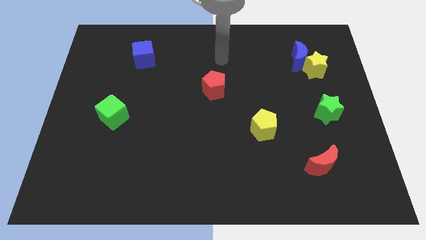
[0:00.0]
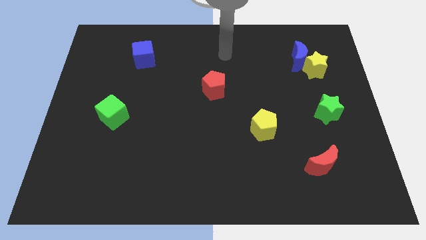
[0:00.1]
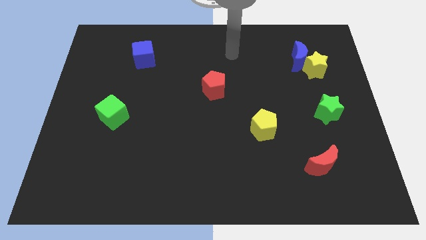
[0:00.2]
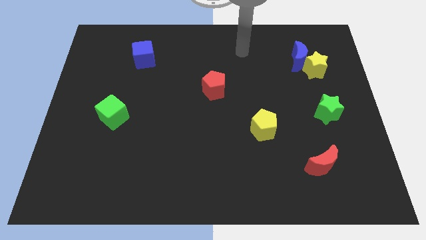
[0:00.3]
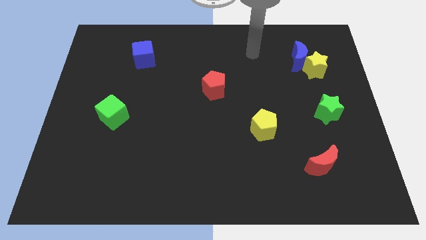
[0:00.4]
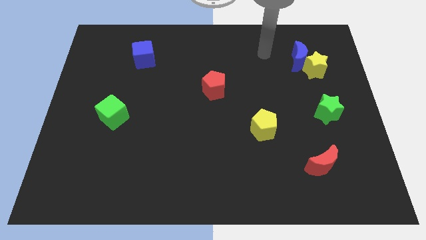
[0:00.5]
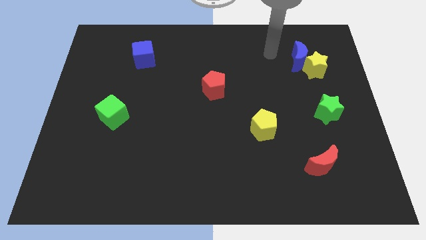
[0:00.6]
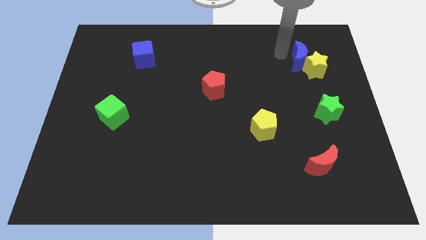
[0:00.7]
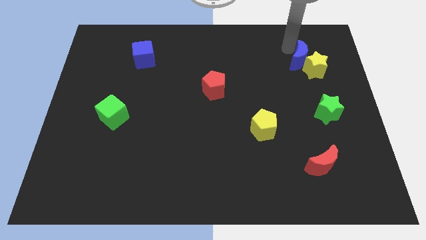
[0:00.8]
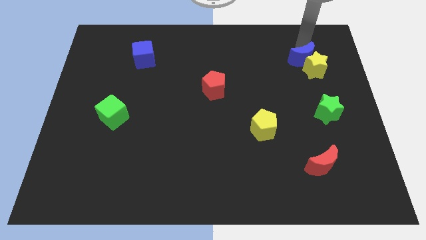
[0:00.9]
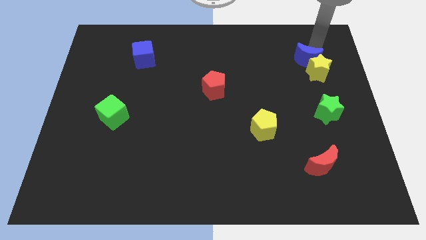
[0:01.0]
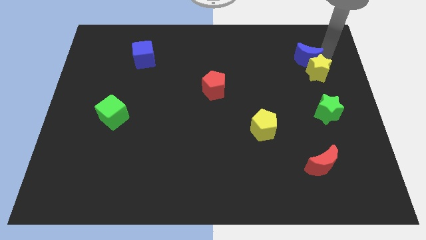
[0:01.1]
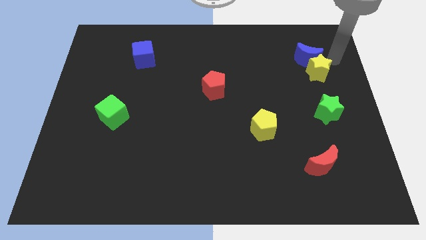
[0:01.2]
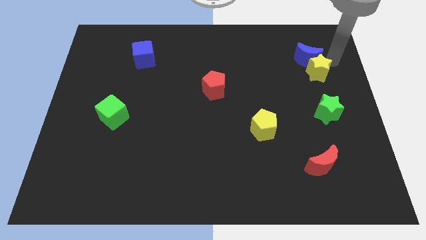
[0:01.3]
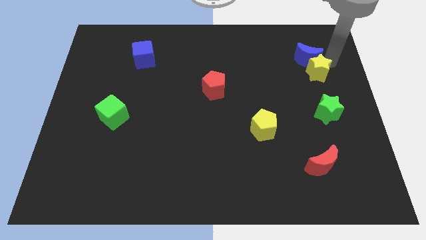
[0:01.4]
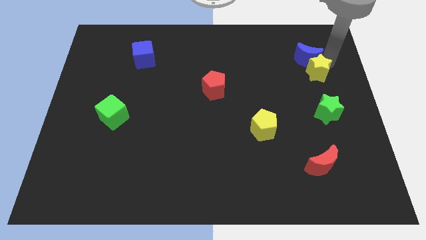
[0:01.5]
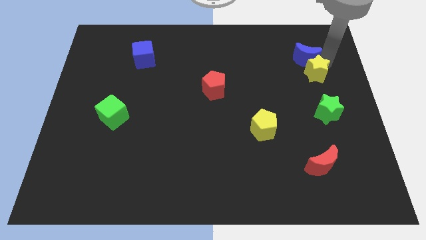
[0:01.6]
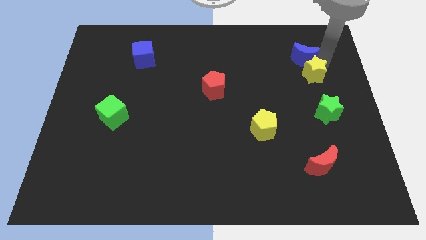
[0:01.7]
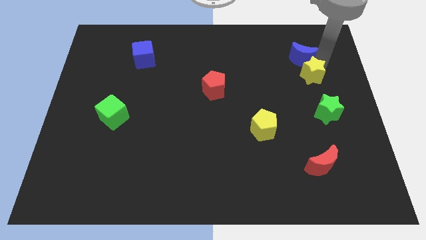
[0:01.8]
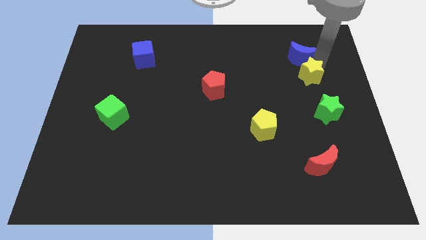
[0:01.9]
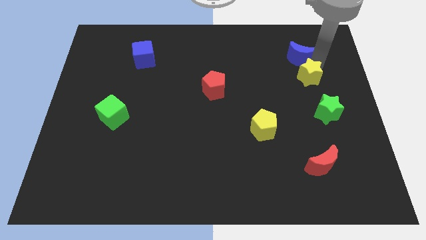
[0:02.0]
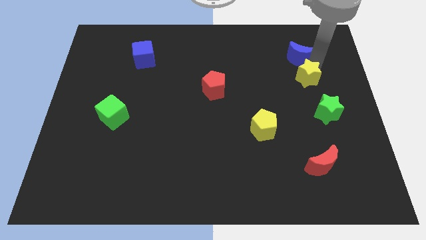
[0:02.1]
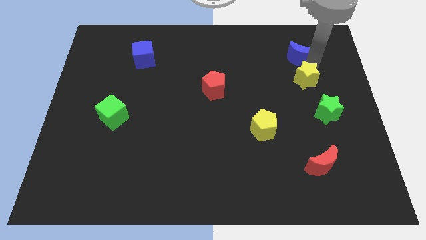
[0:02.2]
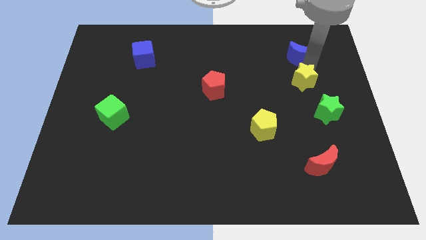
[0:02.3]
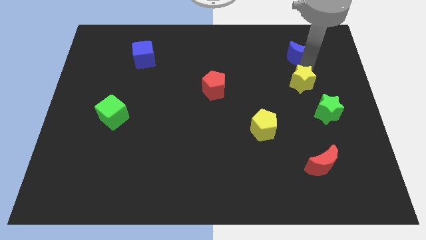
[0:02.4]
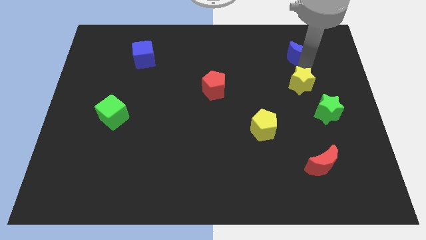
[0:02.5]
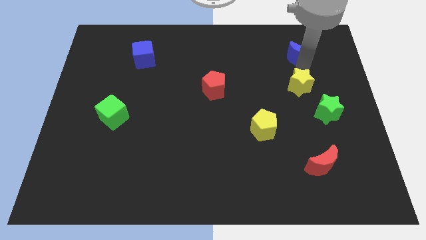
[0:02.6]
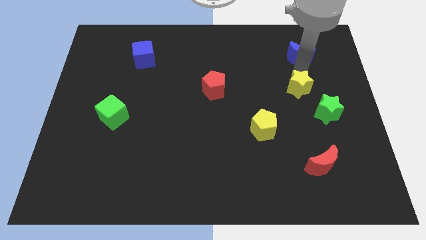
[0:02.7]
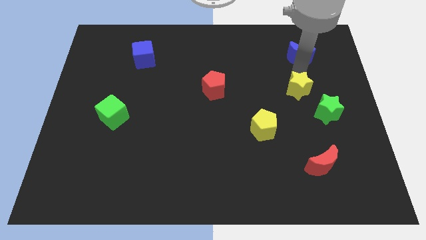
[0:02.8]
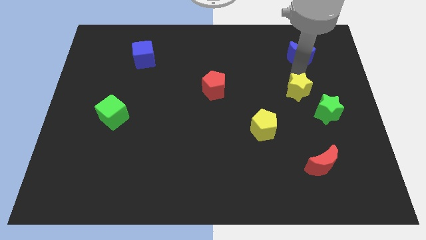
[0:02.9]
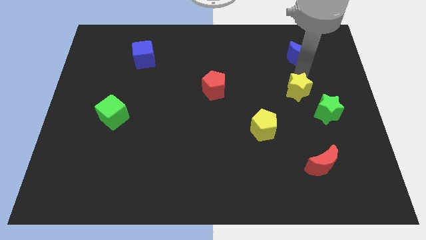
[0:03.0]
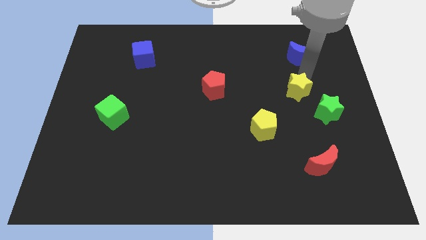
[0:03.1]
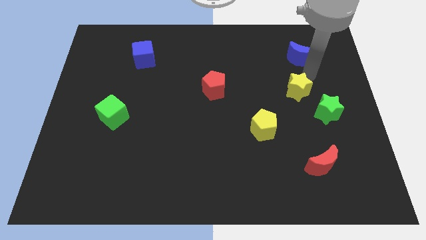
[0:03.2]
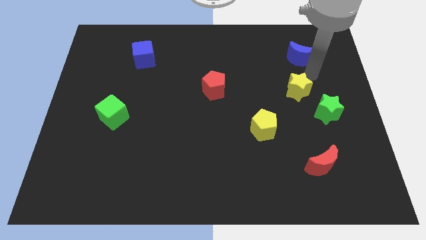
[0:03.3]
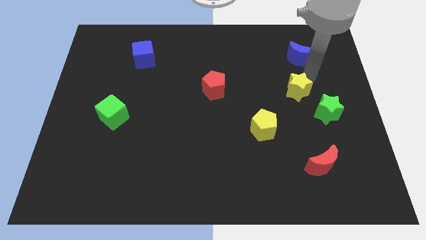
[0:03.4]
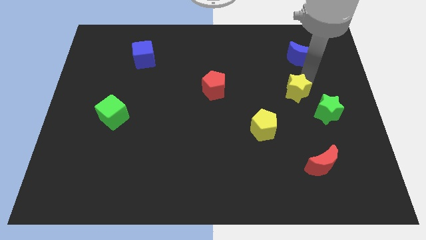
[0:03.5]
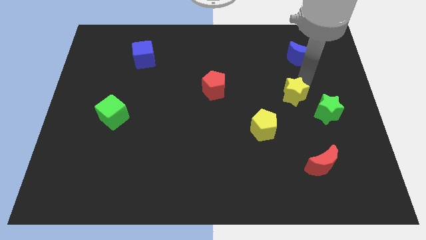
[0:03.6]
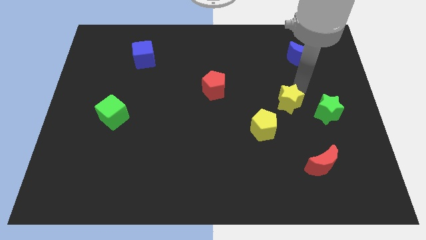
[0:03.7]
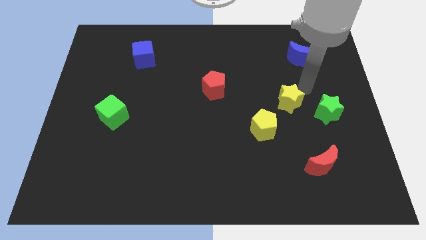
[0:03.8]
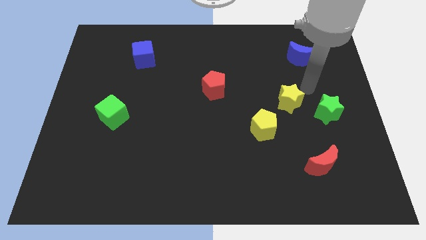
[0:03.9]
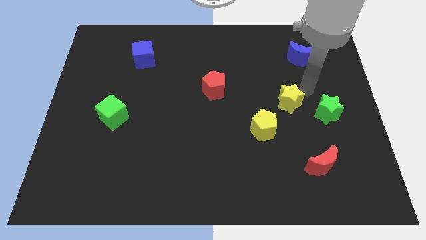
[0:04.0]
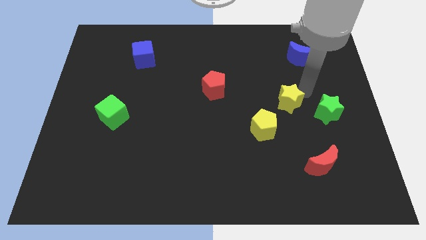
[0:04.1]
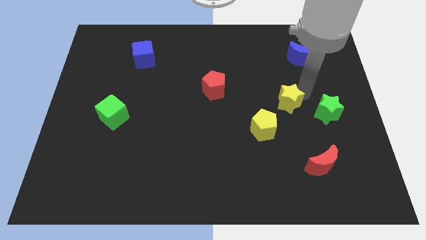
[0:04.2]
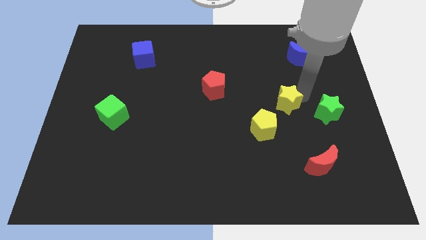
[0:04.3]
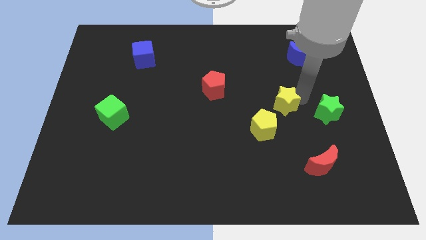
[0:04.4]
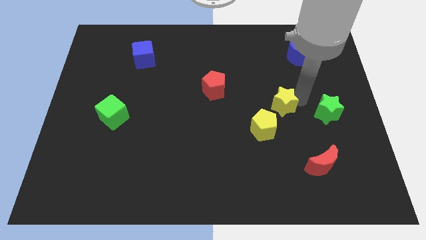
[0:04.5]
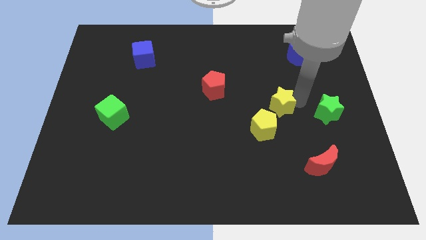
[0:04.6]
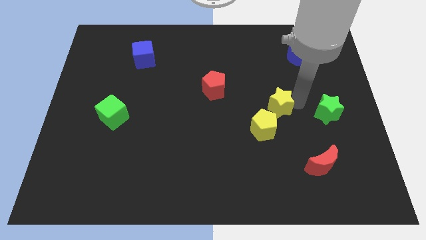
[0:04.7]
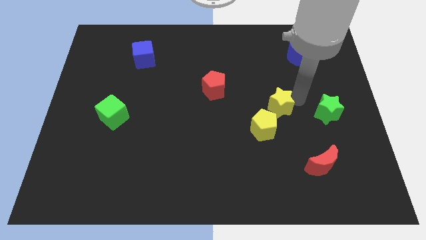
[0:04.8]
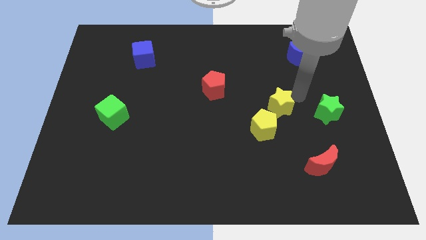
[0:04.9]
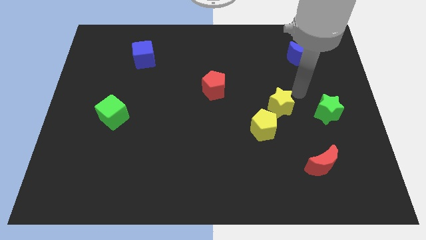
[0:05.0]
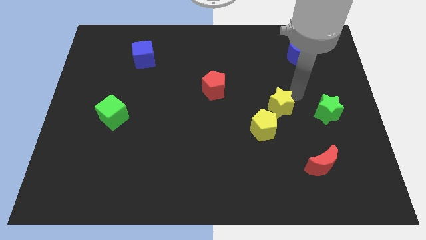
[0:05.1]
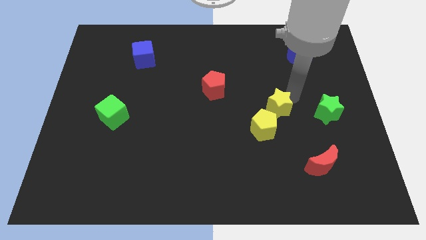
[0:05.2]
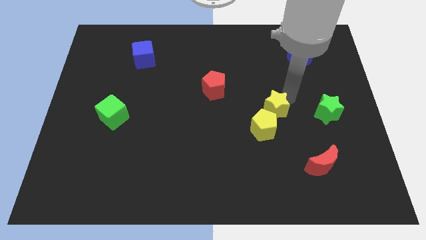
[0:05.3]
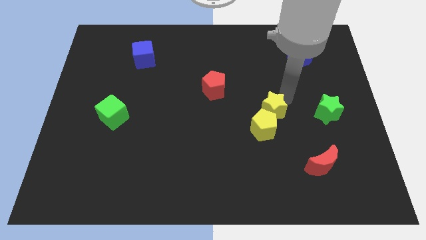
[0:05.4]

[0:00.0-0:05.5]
slide the yellow star next to the yellow pentagon

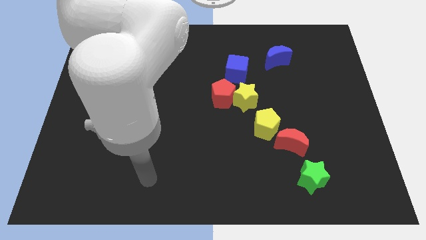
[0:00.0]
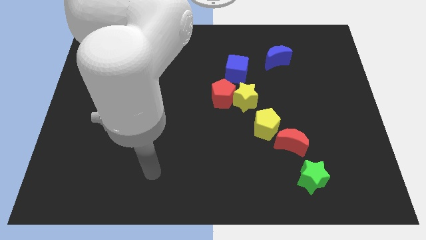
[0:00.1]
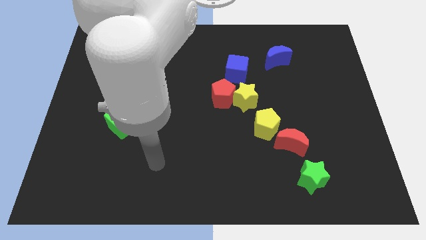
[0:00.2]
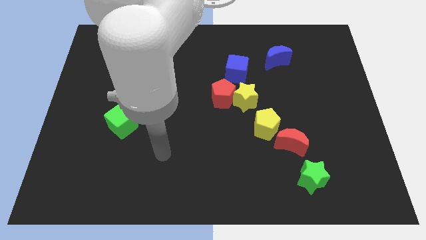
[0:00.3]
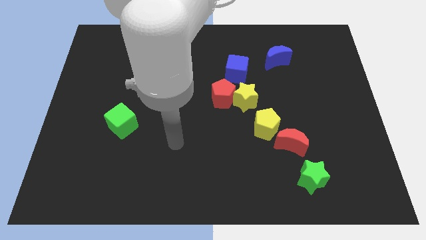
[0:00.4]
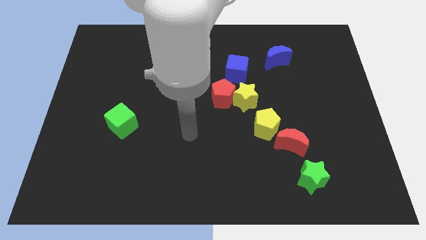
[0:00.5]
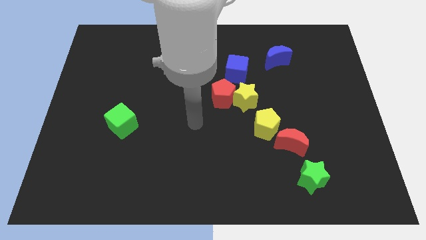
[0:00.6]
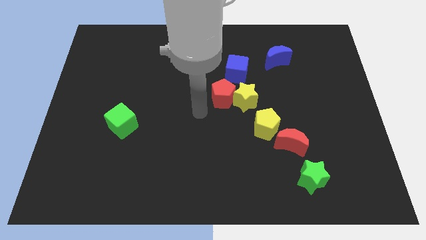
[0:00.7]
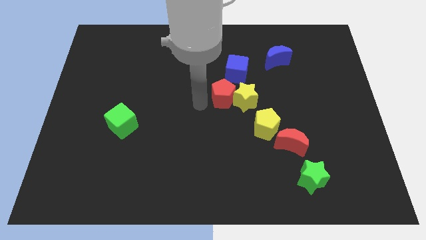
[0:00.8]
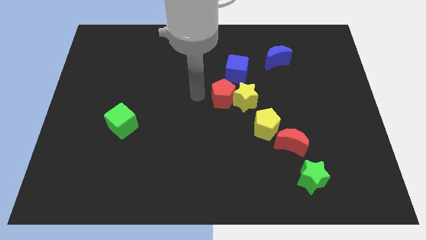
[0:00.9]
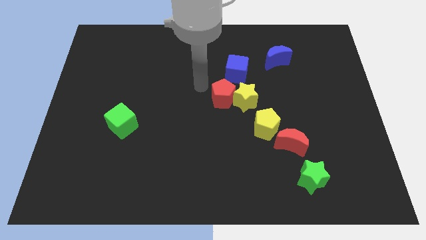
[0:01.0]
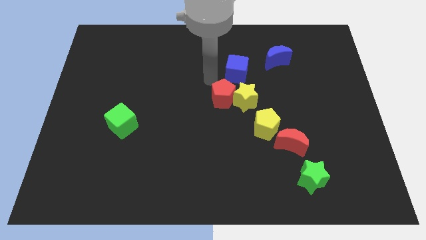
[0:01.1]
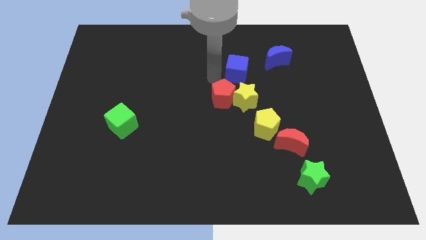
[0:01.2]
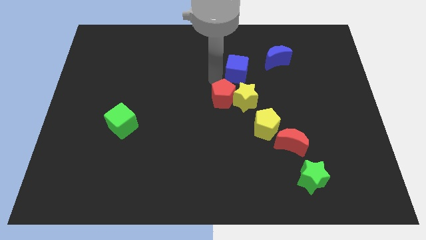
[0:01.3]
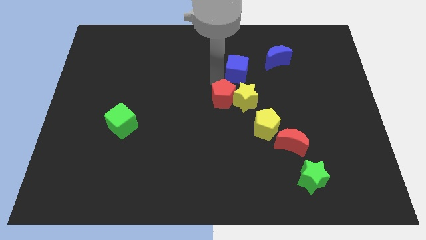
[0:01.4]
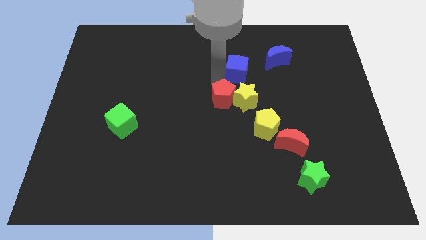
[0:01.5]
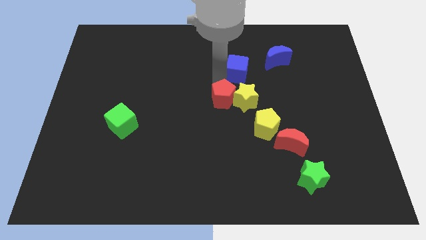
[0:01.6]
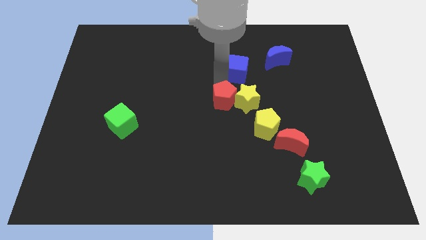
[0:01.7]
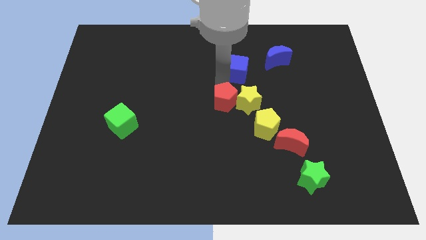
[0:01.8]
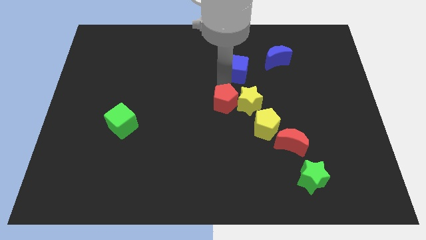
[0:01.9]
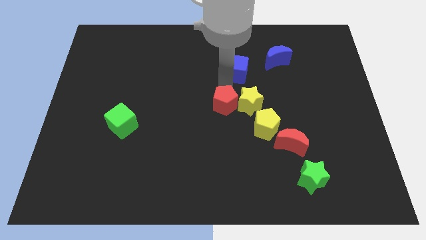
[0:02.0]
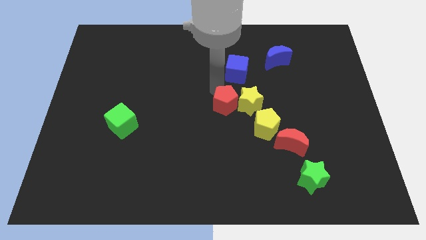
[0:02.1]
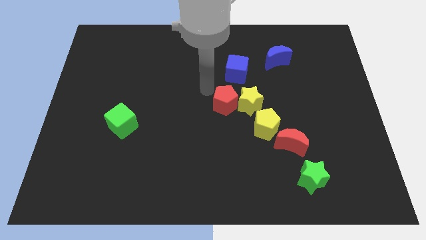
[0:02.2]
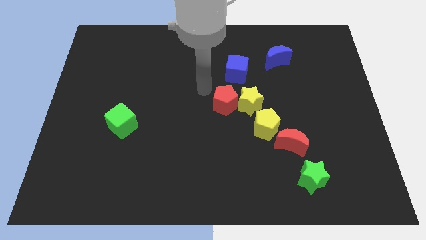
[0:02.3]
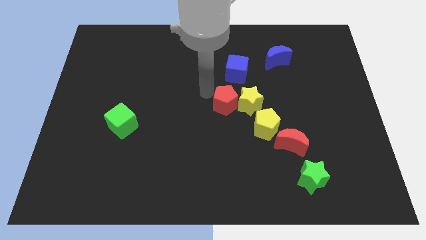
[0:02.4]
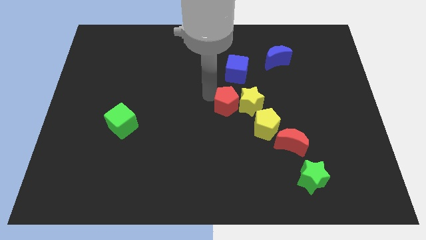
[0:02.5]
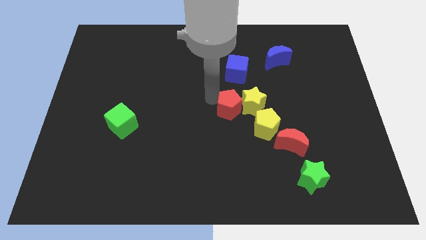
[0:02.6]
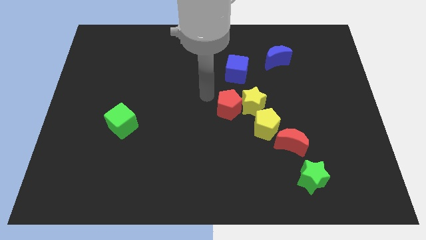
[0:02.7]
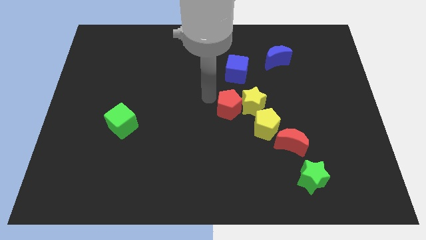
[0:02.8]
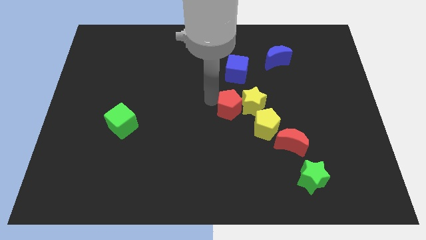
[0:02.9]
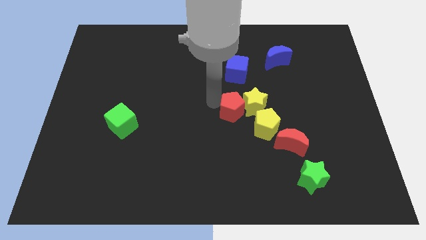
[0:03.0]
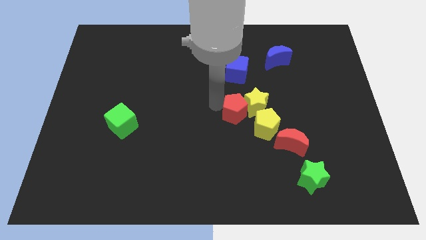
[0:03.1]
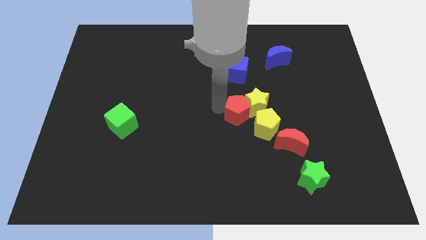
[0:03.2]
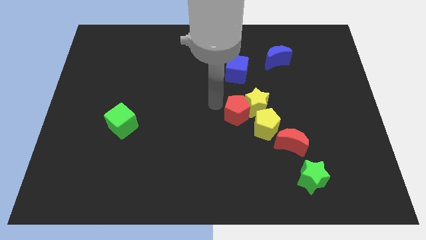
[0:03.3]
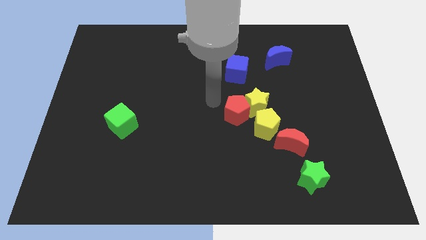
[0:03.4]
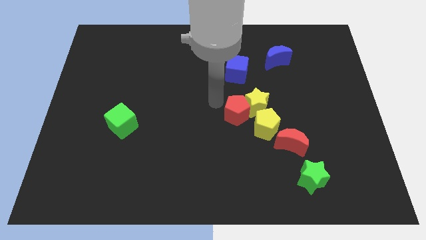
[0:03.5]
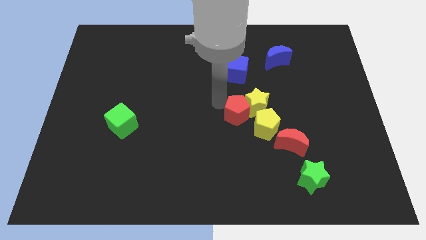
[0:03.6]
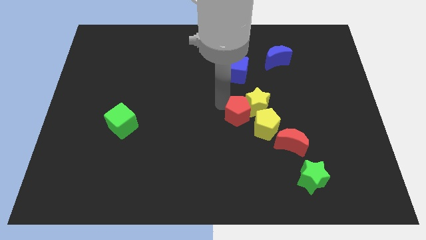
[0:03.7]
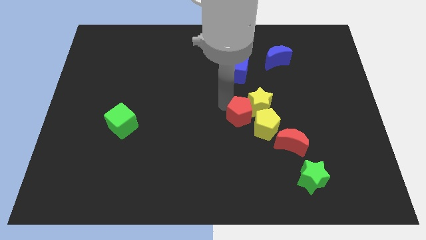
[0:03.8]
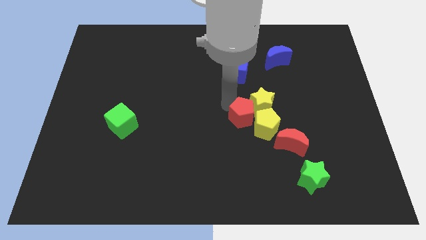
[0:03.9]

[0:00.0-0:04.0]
move the red pentagon towards the yellow pentagon
